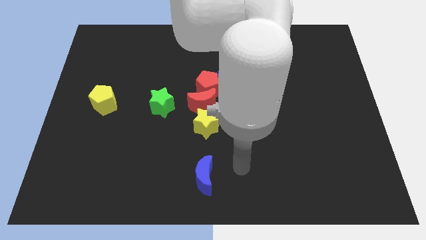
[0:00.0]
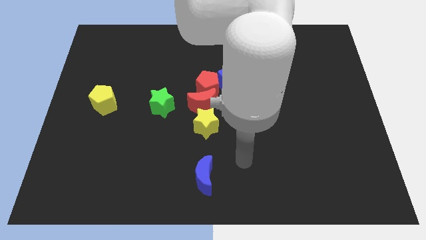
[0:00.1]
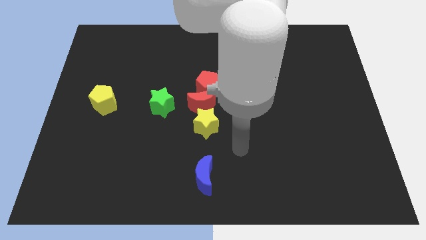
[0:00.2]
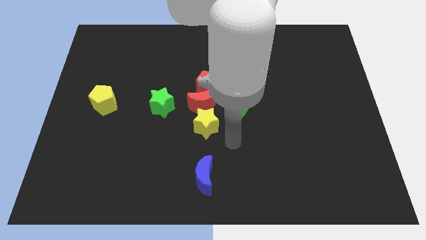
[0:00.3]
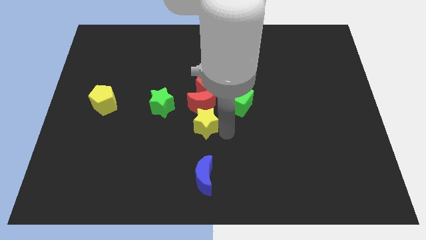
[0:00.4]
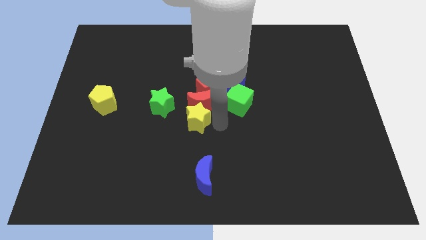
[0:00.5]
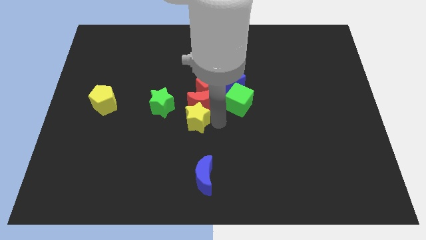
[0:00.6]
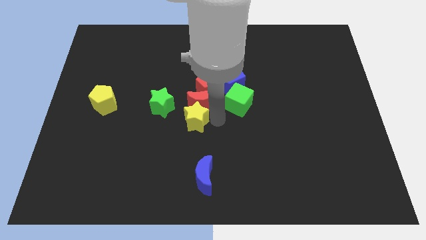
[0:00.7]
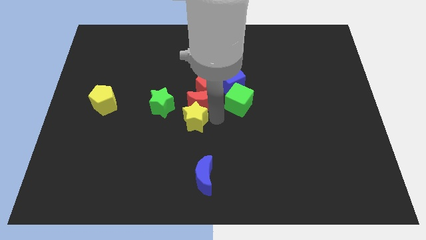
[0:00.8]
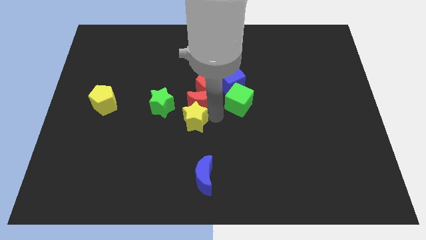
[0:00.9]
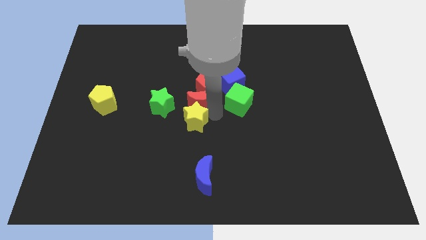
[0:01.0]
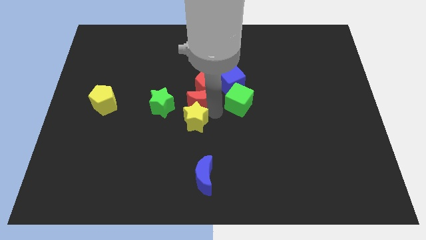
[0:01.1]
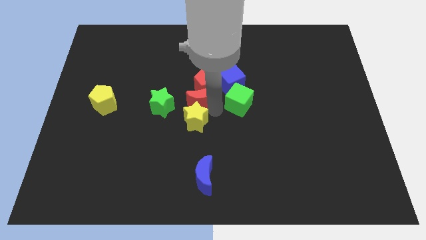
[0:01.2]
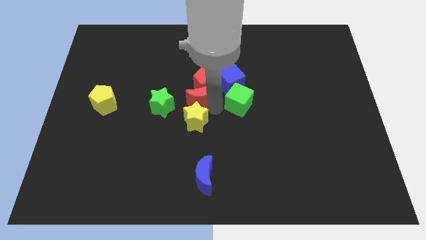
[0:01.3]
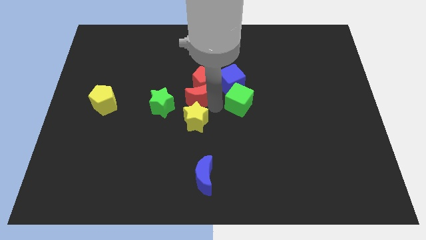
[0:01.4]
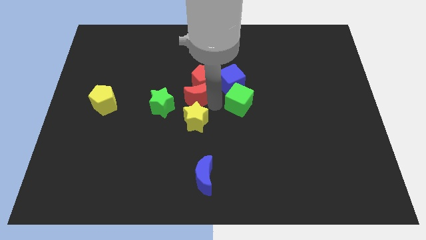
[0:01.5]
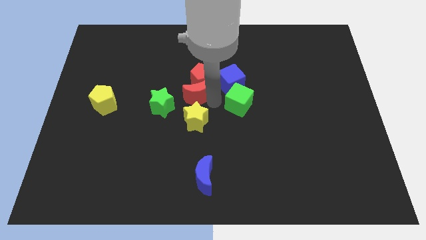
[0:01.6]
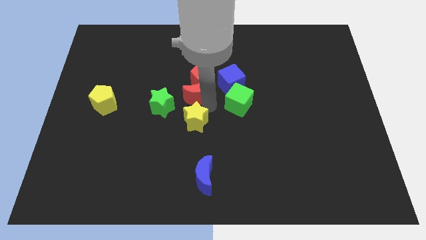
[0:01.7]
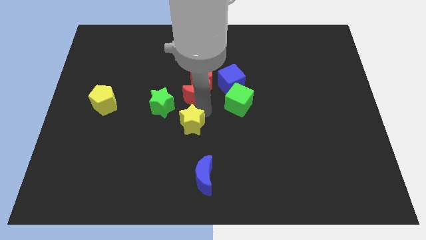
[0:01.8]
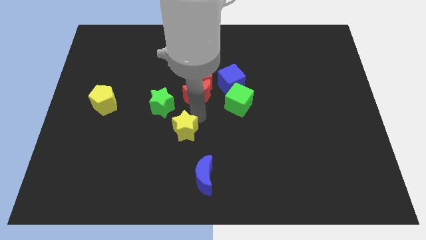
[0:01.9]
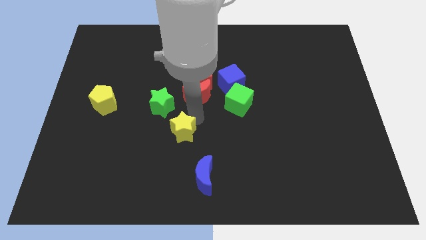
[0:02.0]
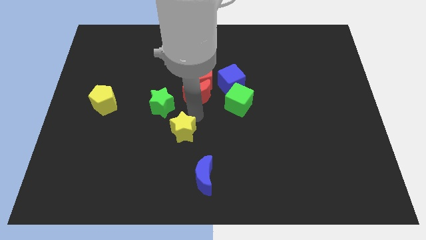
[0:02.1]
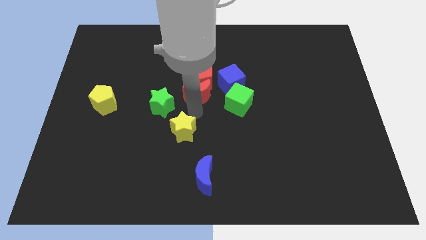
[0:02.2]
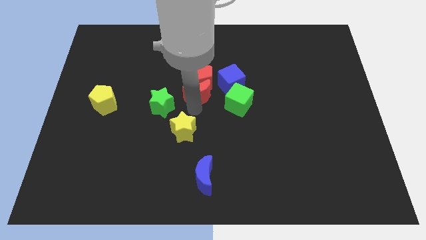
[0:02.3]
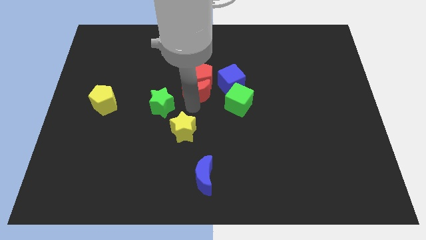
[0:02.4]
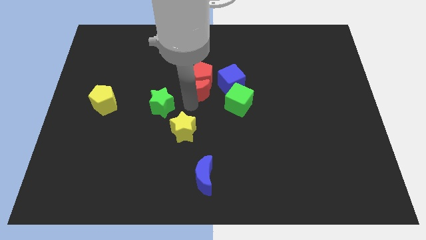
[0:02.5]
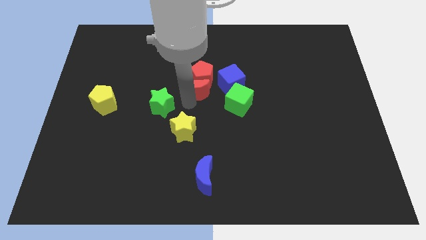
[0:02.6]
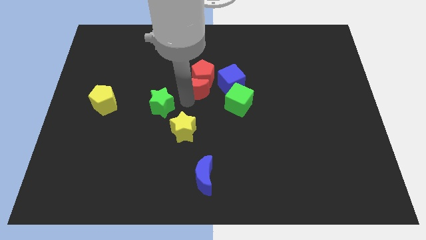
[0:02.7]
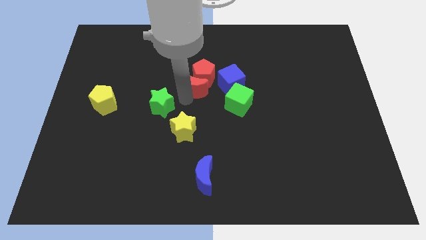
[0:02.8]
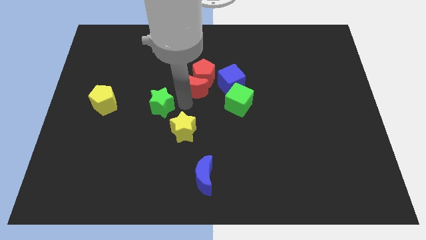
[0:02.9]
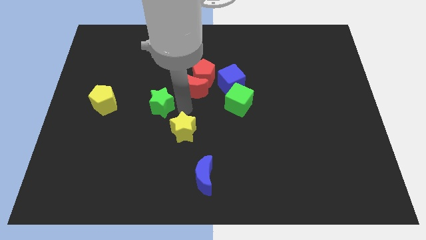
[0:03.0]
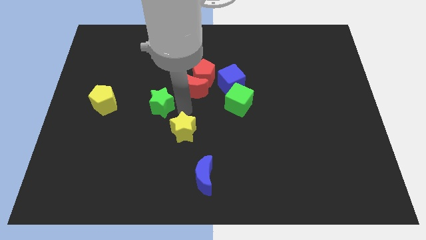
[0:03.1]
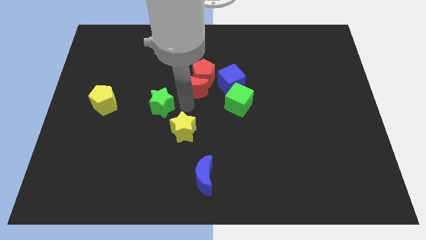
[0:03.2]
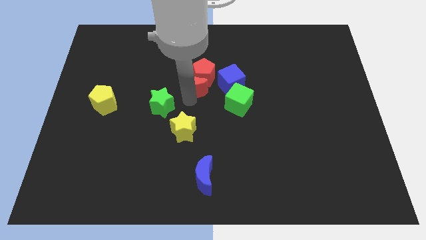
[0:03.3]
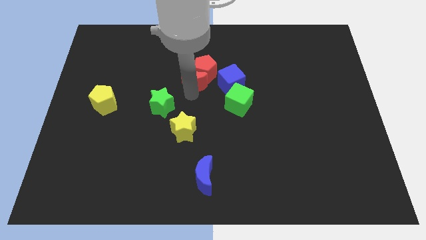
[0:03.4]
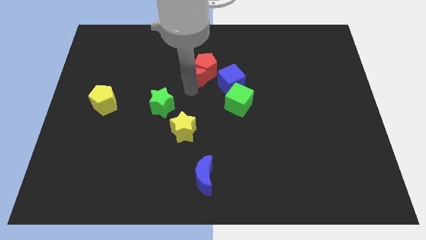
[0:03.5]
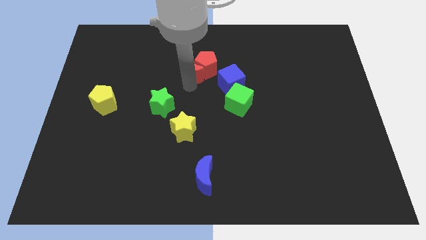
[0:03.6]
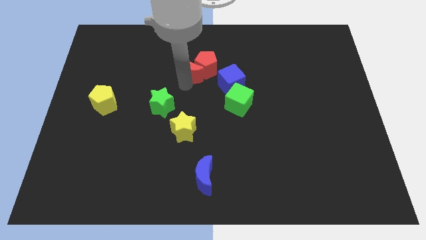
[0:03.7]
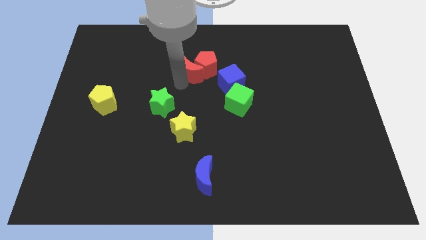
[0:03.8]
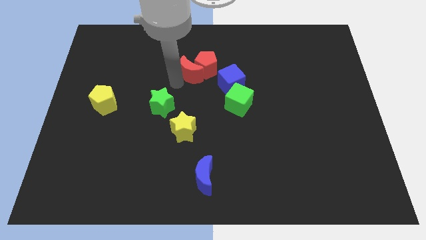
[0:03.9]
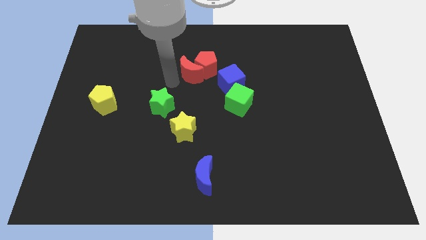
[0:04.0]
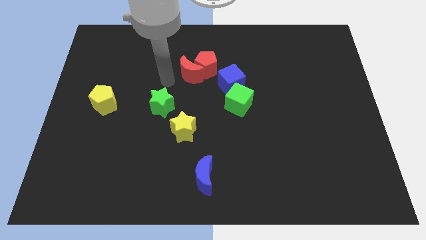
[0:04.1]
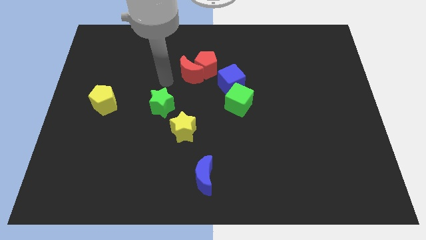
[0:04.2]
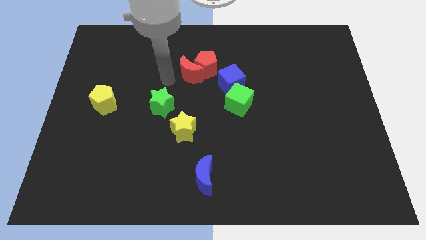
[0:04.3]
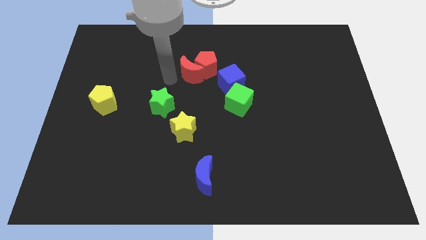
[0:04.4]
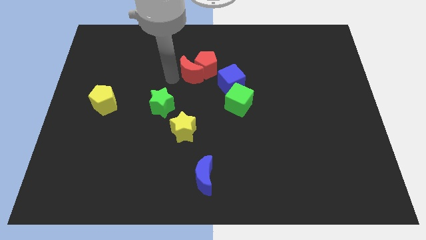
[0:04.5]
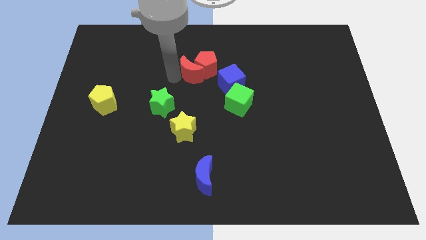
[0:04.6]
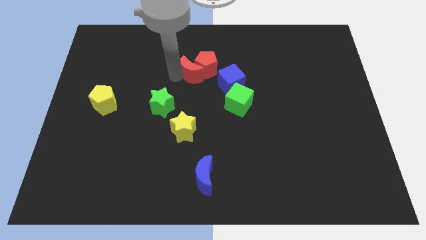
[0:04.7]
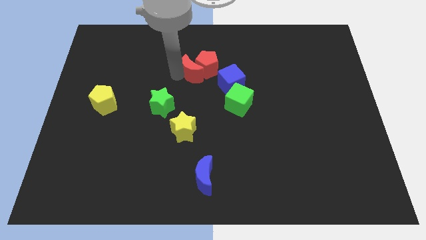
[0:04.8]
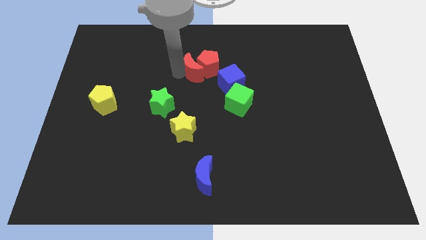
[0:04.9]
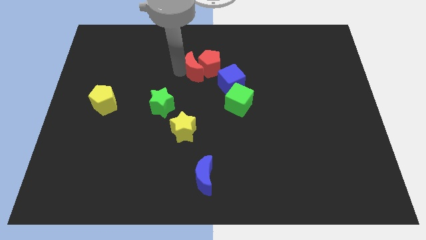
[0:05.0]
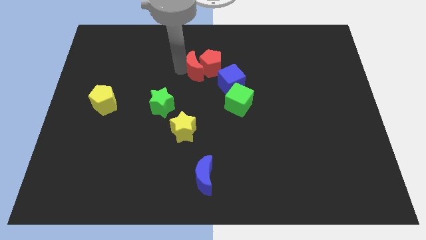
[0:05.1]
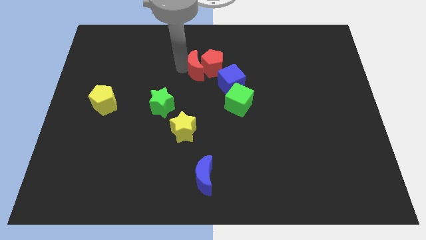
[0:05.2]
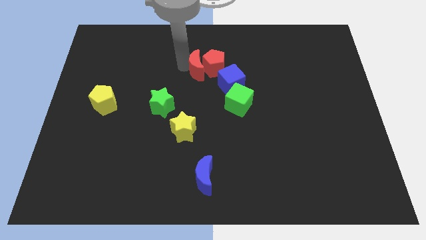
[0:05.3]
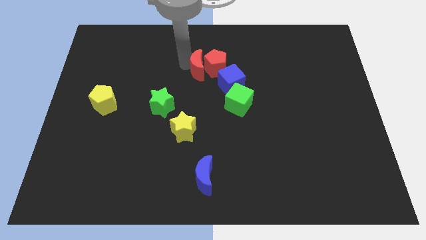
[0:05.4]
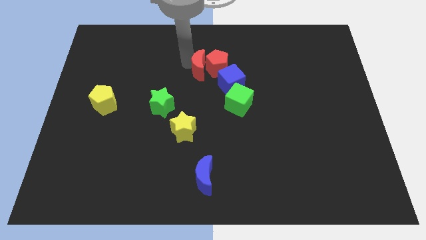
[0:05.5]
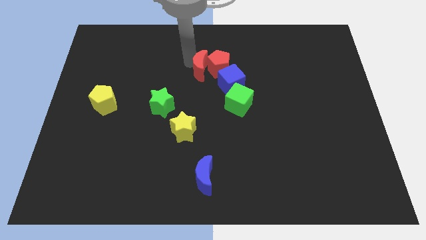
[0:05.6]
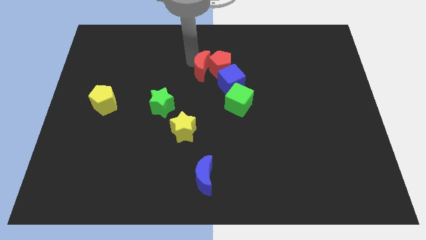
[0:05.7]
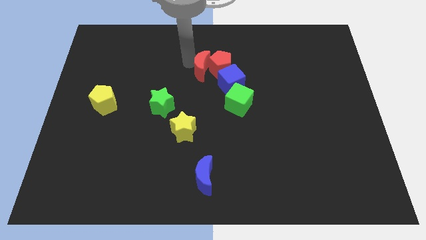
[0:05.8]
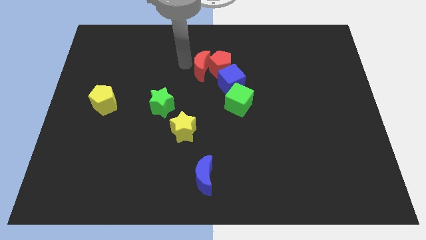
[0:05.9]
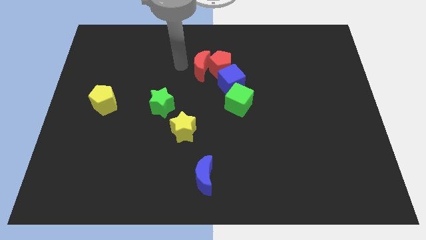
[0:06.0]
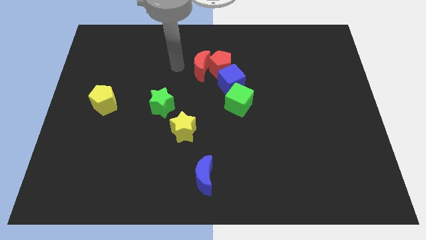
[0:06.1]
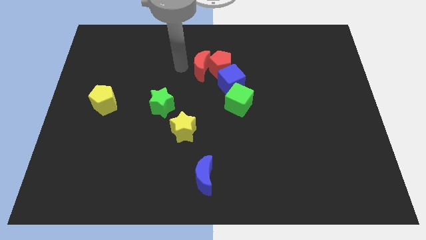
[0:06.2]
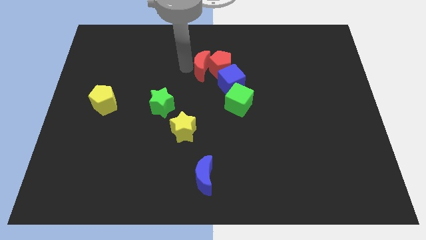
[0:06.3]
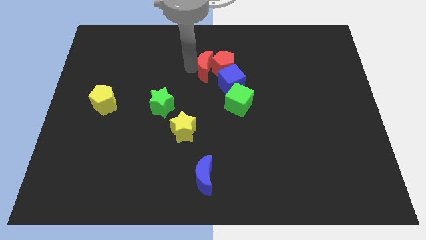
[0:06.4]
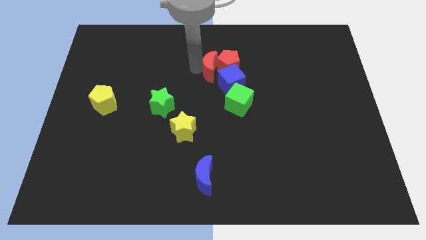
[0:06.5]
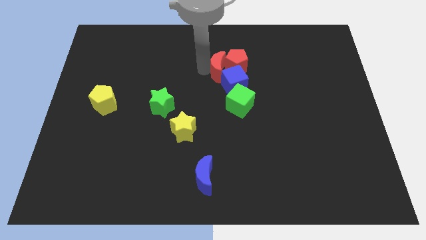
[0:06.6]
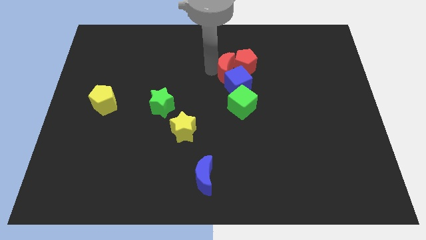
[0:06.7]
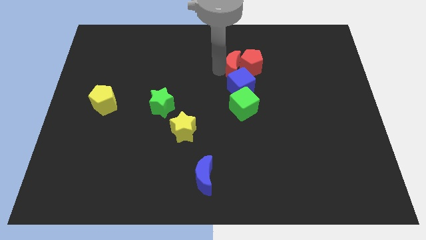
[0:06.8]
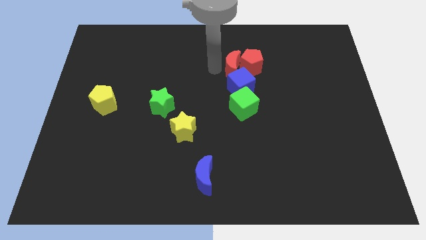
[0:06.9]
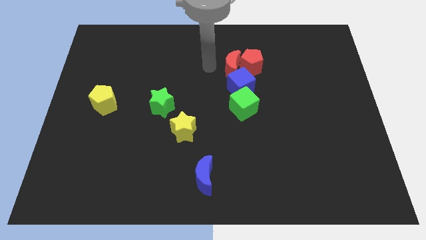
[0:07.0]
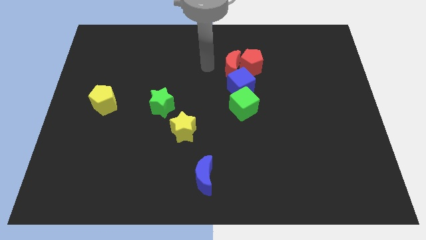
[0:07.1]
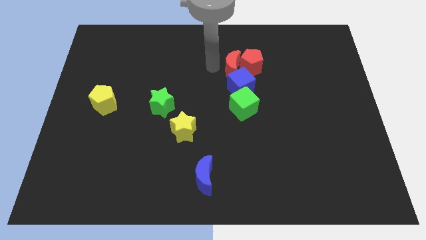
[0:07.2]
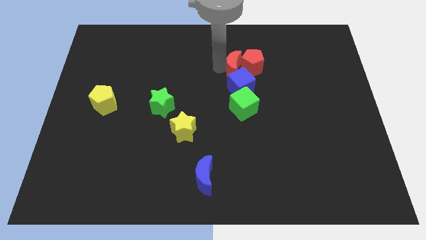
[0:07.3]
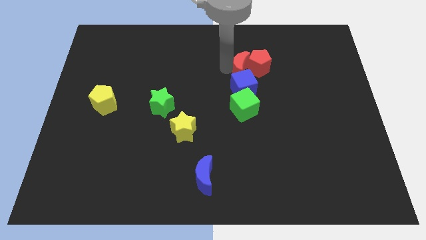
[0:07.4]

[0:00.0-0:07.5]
put the red moon to the top right of the blue cube
